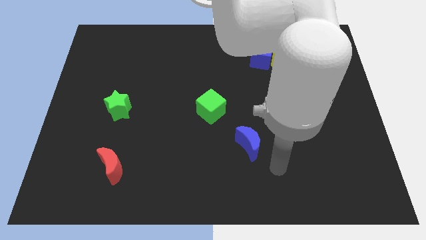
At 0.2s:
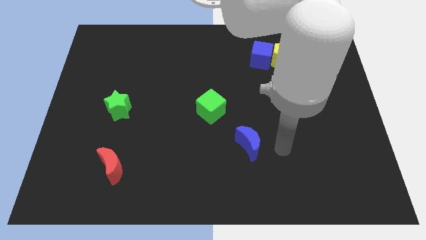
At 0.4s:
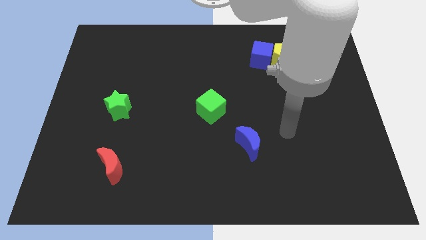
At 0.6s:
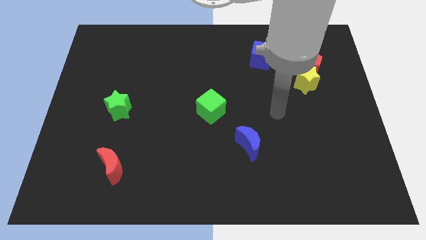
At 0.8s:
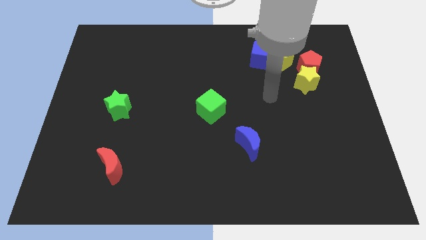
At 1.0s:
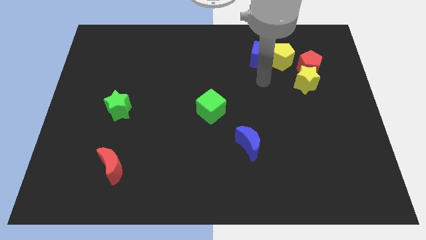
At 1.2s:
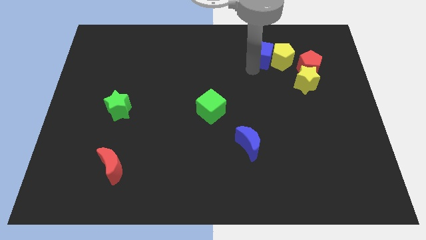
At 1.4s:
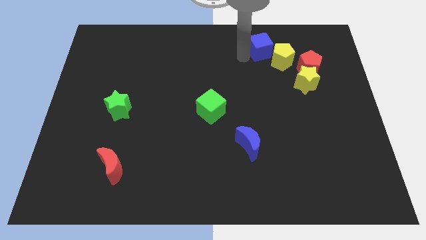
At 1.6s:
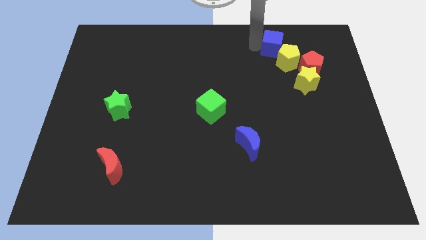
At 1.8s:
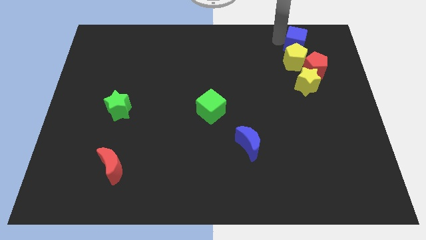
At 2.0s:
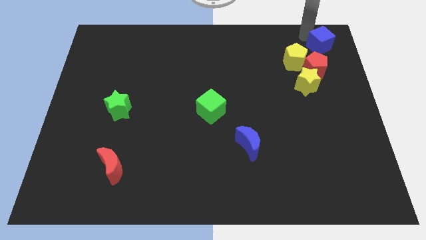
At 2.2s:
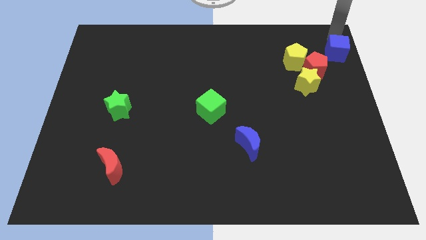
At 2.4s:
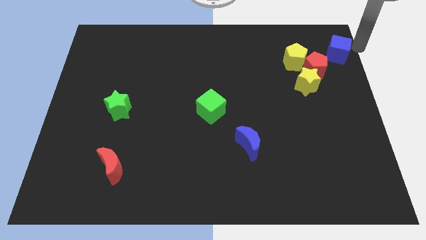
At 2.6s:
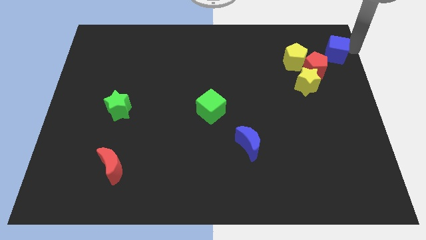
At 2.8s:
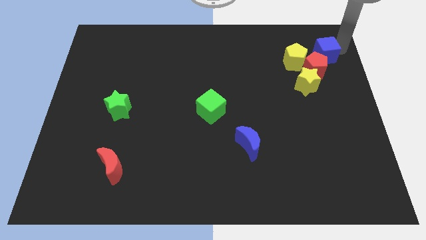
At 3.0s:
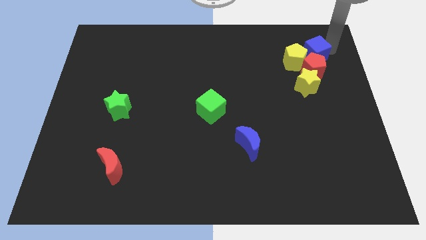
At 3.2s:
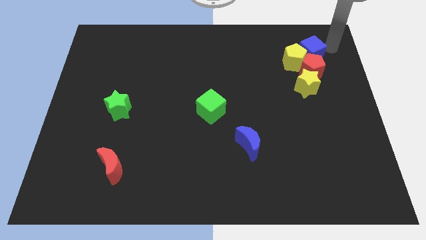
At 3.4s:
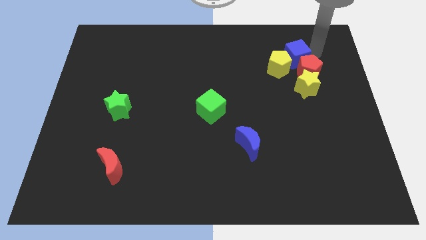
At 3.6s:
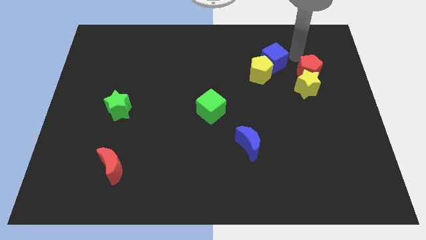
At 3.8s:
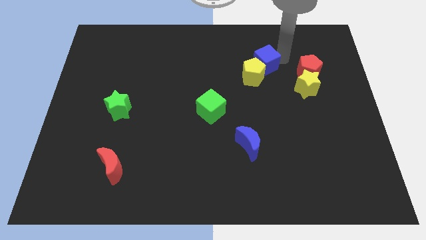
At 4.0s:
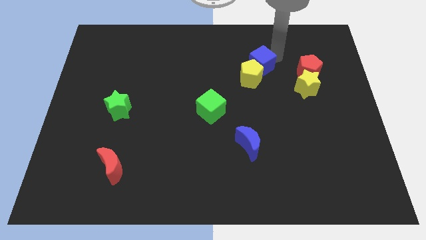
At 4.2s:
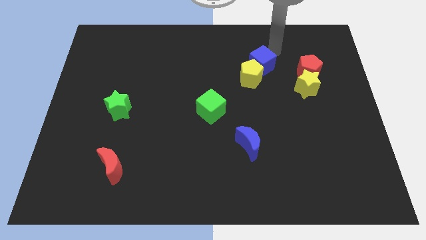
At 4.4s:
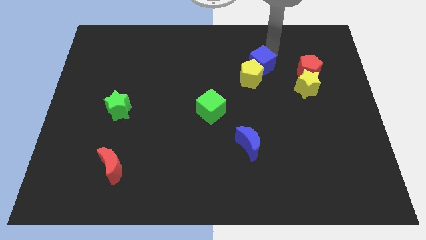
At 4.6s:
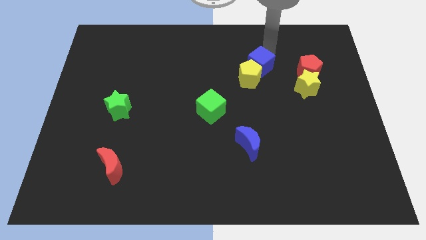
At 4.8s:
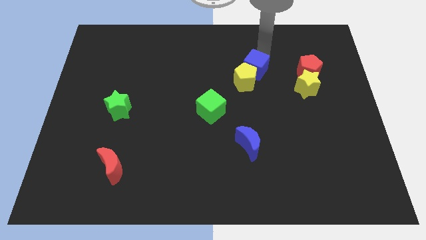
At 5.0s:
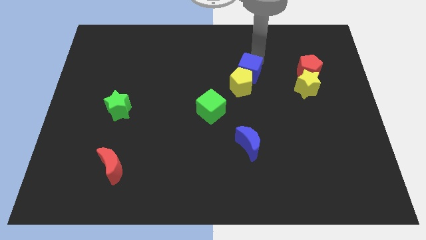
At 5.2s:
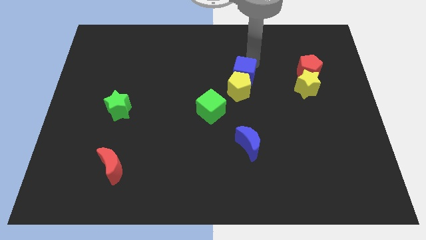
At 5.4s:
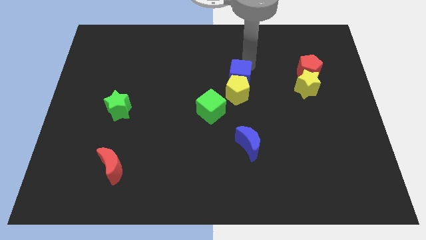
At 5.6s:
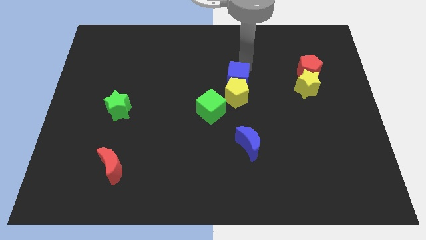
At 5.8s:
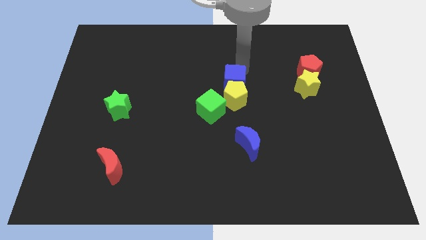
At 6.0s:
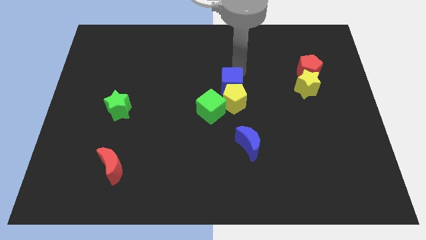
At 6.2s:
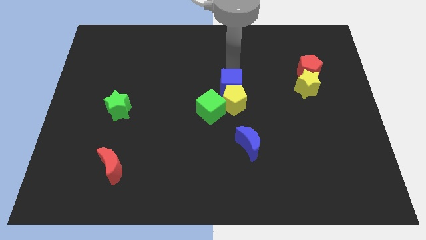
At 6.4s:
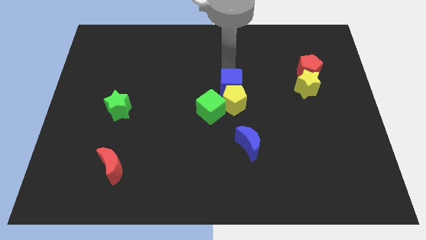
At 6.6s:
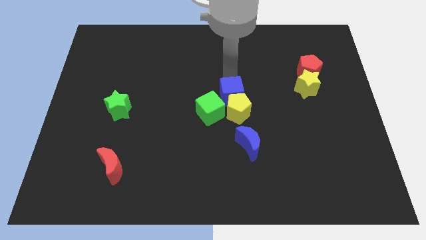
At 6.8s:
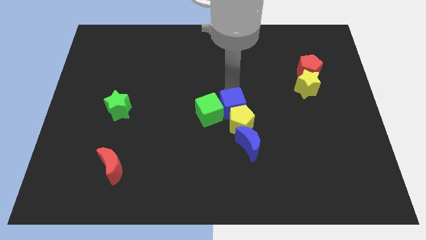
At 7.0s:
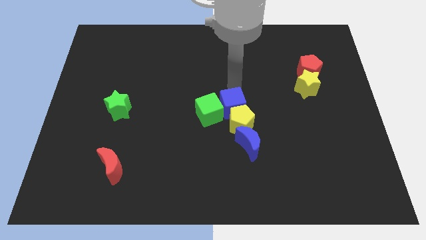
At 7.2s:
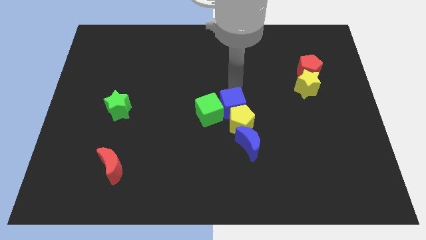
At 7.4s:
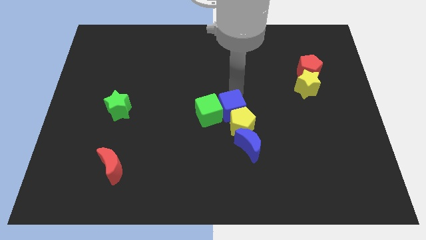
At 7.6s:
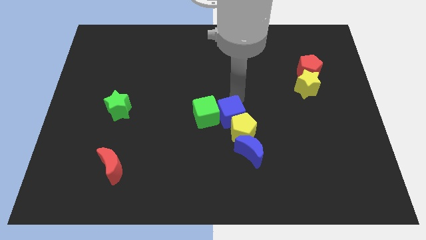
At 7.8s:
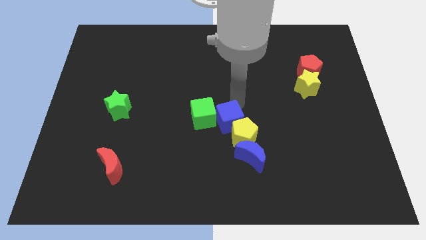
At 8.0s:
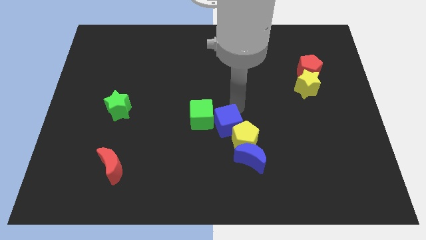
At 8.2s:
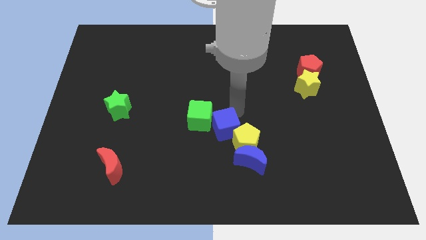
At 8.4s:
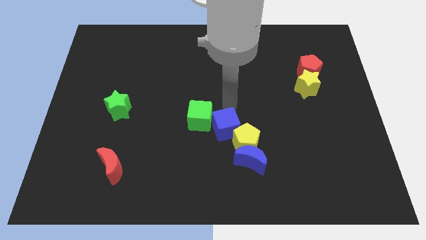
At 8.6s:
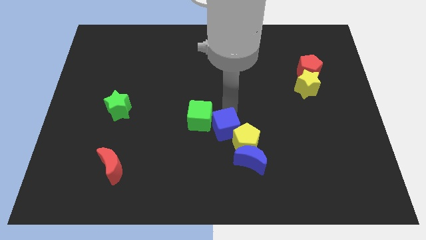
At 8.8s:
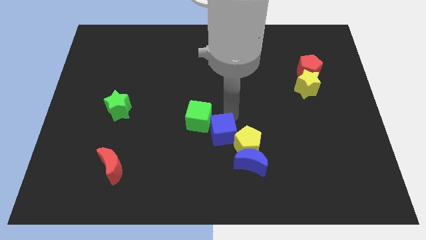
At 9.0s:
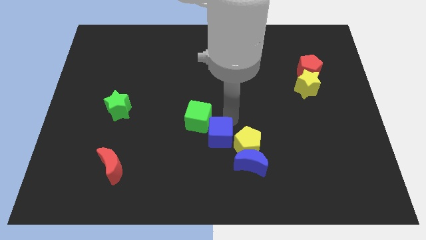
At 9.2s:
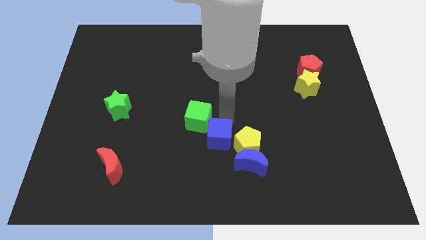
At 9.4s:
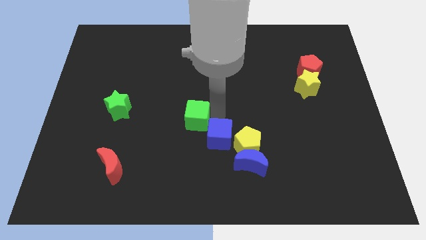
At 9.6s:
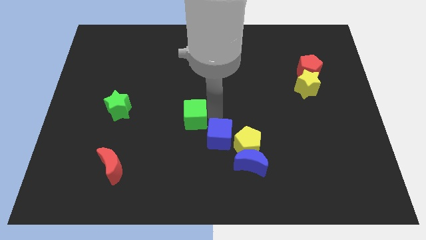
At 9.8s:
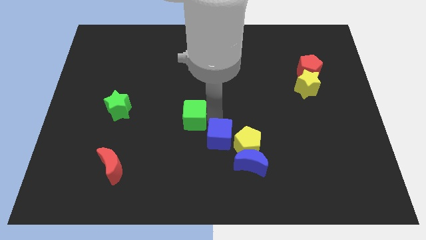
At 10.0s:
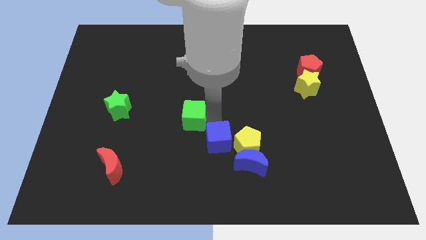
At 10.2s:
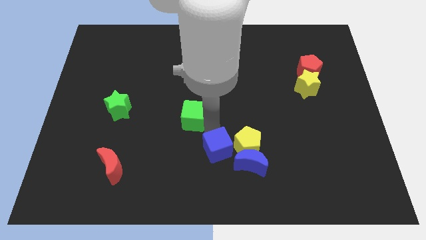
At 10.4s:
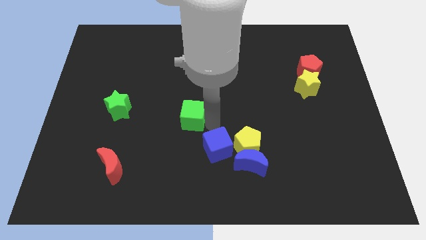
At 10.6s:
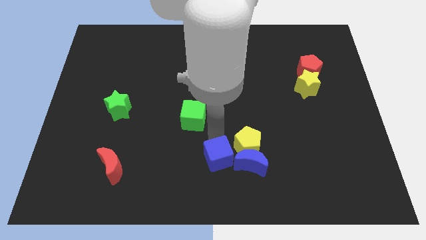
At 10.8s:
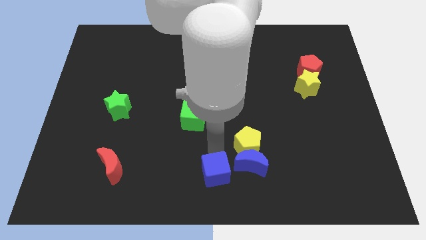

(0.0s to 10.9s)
move the blue cube to the bottom left side of the blue moon

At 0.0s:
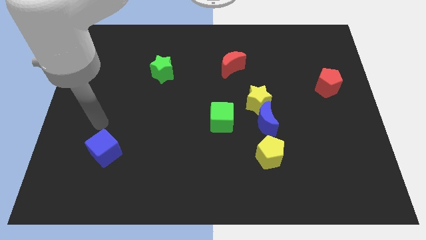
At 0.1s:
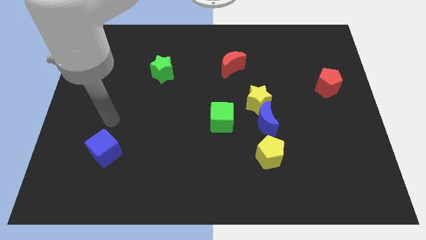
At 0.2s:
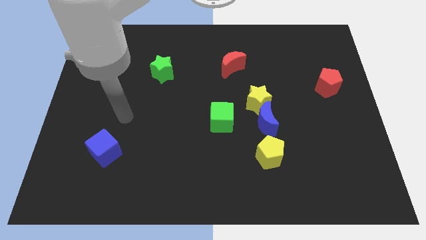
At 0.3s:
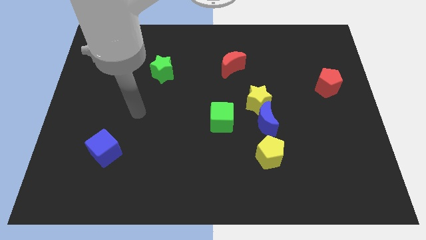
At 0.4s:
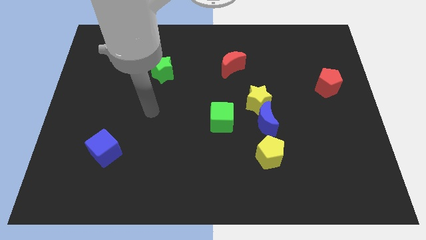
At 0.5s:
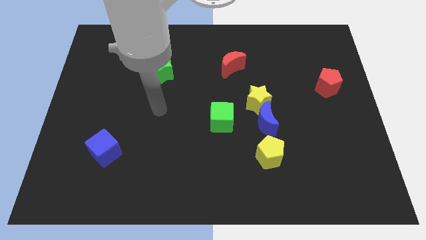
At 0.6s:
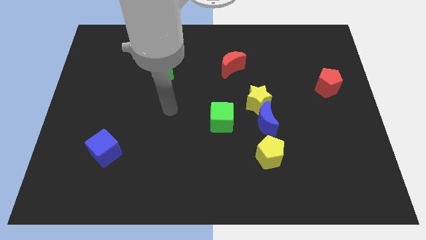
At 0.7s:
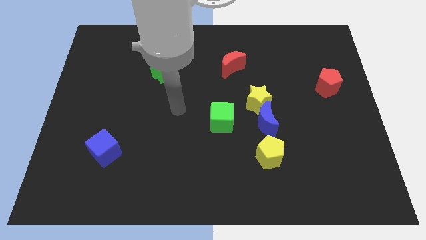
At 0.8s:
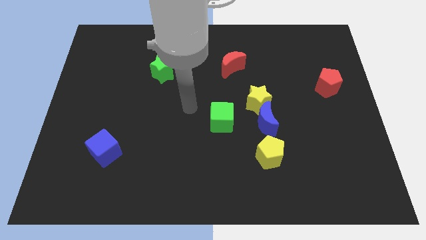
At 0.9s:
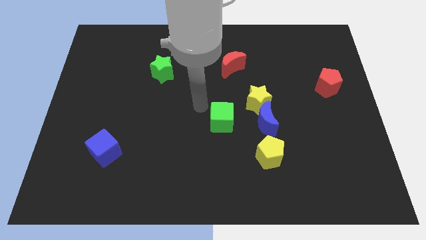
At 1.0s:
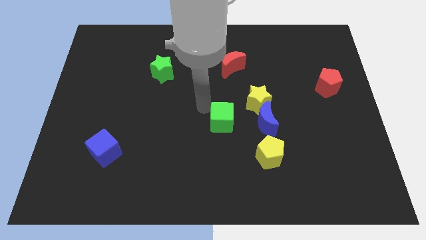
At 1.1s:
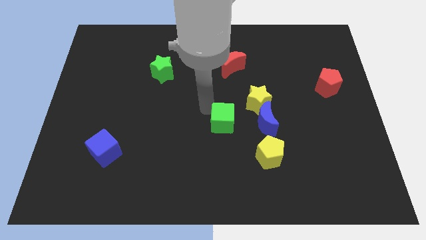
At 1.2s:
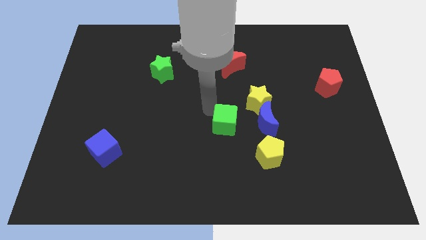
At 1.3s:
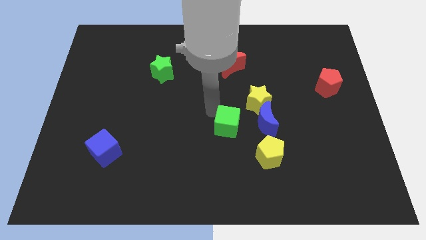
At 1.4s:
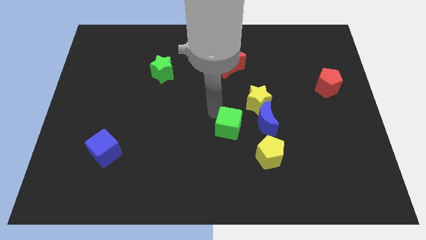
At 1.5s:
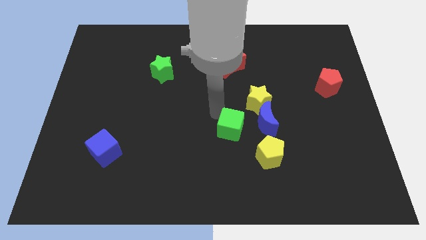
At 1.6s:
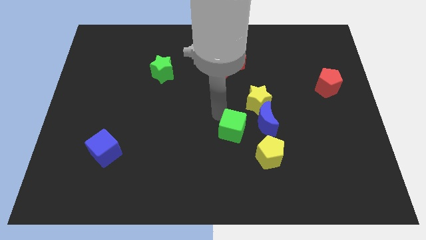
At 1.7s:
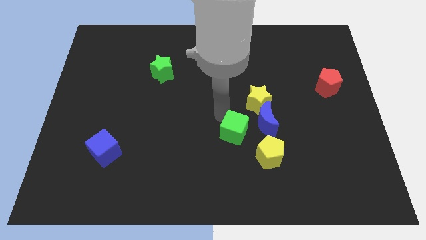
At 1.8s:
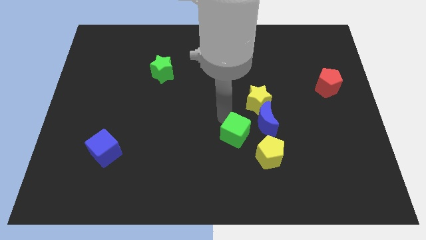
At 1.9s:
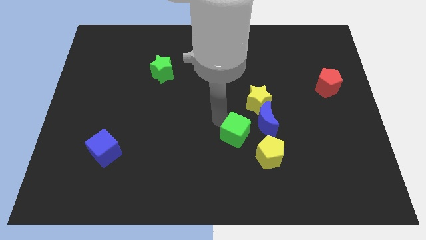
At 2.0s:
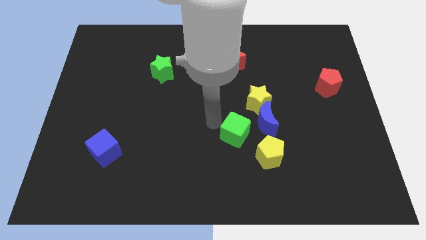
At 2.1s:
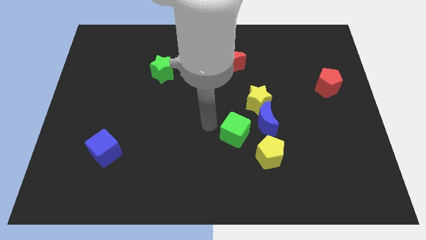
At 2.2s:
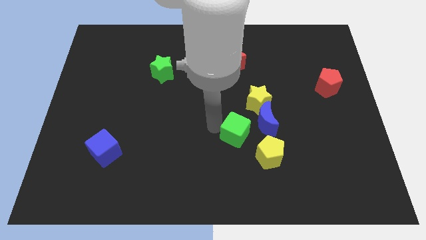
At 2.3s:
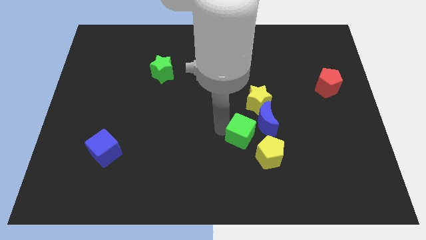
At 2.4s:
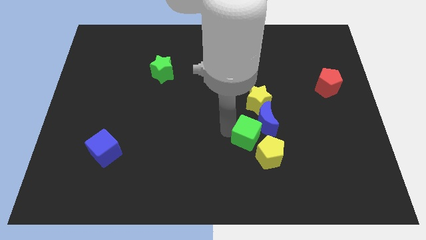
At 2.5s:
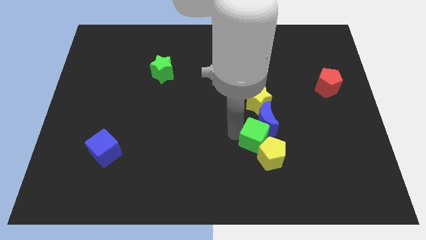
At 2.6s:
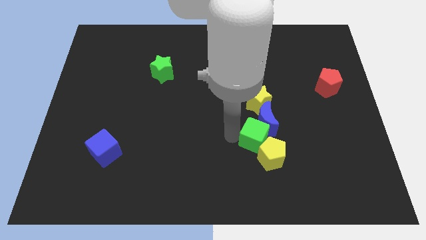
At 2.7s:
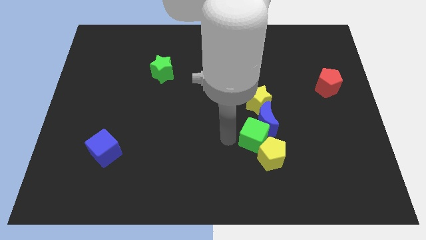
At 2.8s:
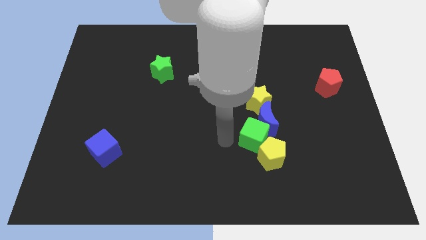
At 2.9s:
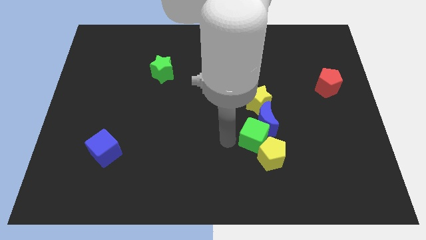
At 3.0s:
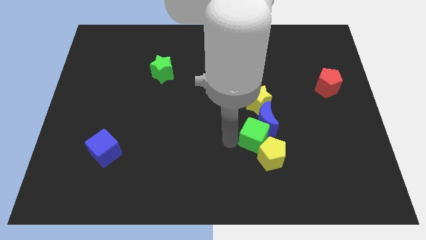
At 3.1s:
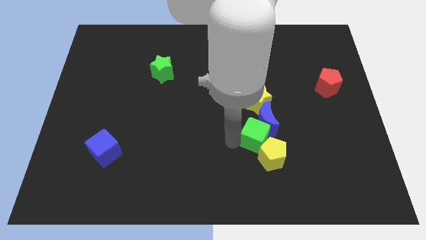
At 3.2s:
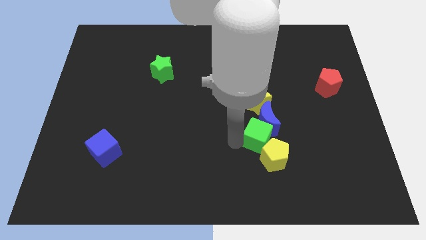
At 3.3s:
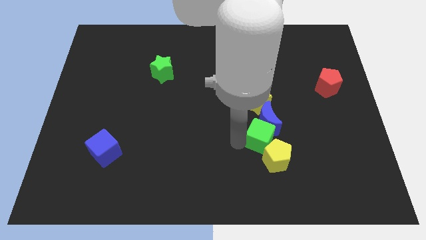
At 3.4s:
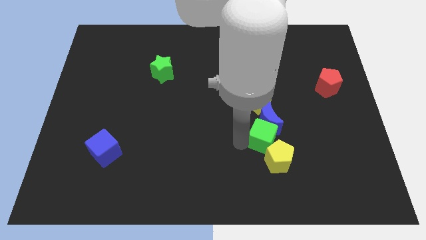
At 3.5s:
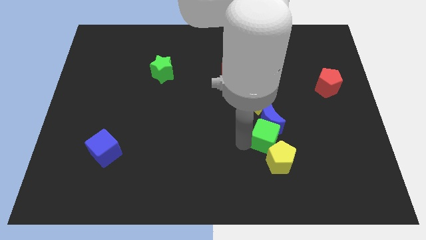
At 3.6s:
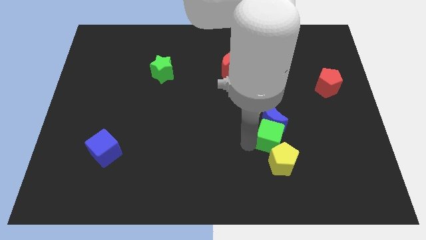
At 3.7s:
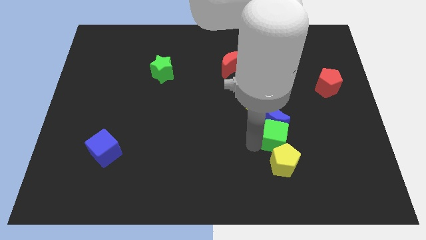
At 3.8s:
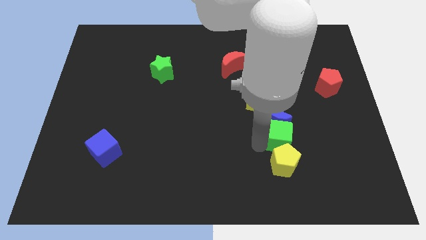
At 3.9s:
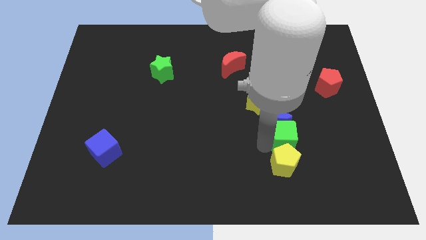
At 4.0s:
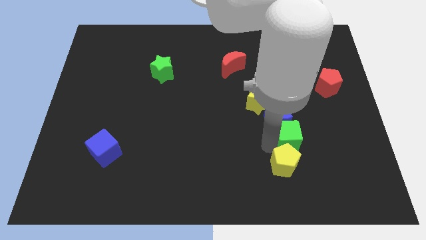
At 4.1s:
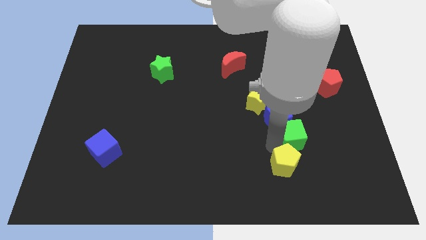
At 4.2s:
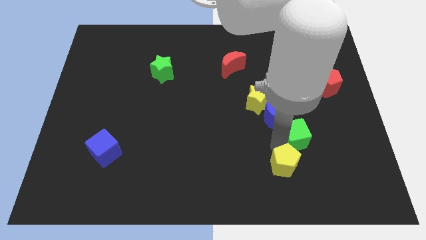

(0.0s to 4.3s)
push the green cube to the right of the blue moon
